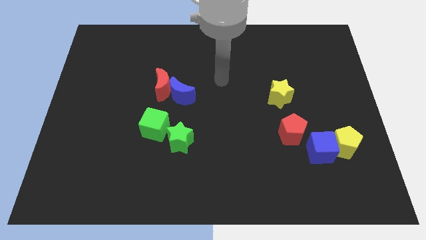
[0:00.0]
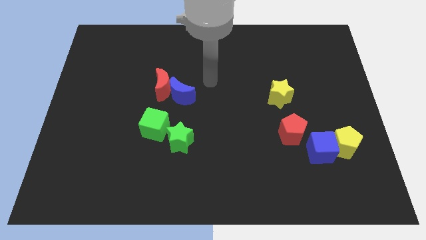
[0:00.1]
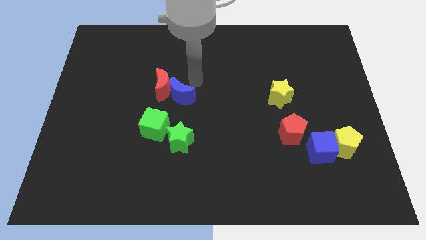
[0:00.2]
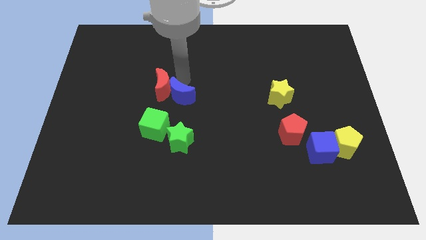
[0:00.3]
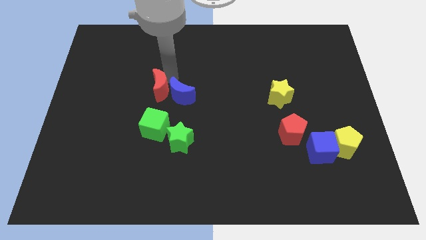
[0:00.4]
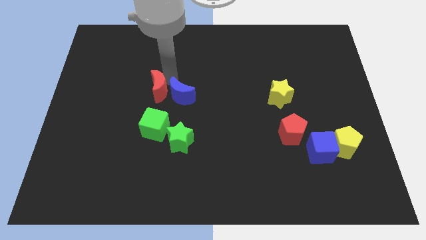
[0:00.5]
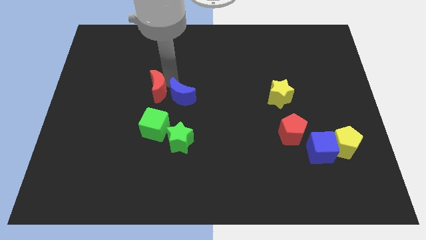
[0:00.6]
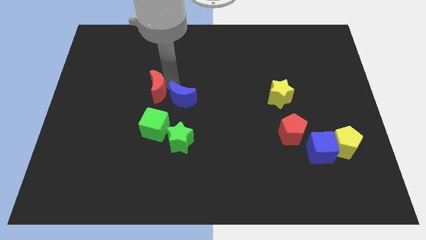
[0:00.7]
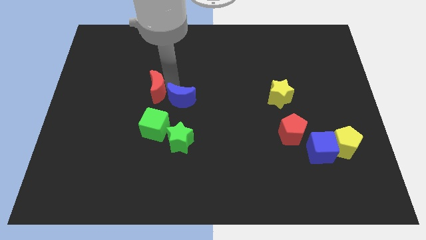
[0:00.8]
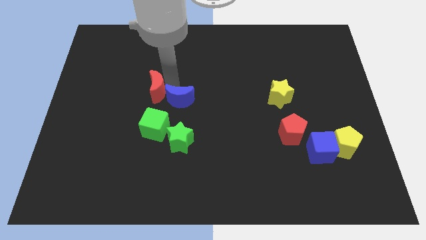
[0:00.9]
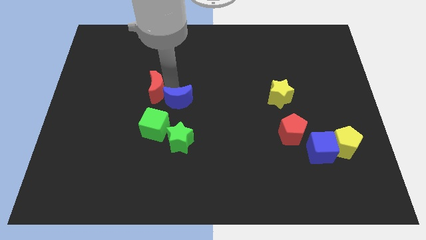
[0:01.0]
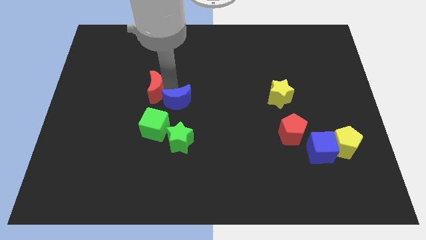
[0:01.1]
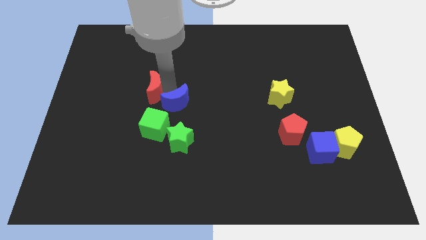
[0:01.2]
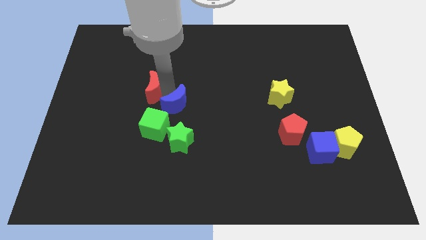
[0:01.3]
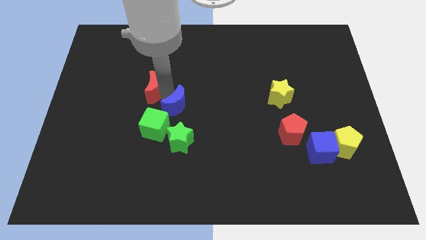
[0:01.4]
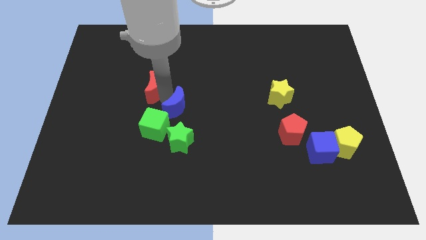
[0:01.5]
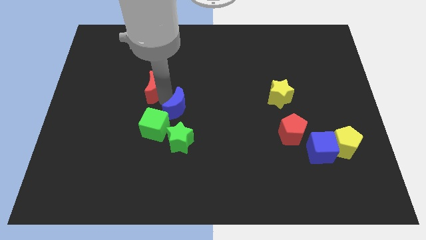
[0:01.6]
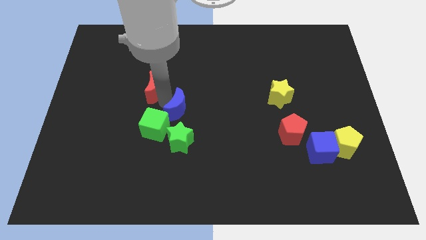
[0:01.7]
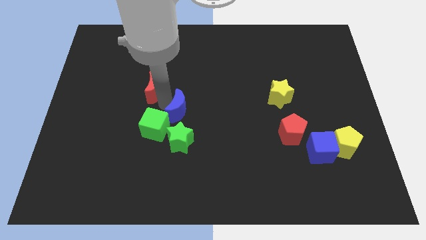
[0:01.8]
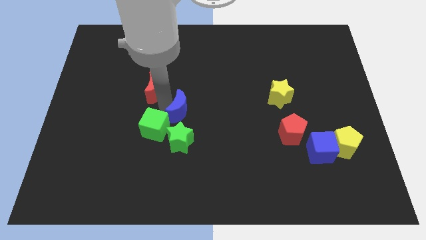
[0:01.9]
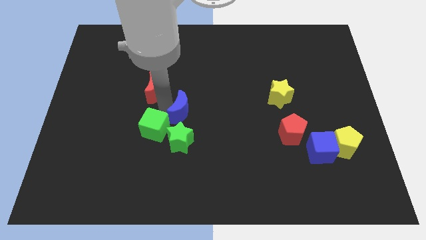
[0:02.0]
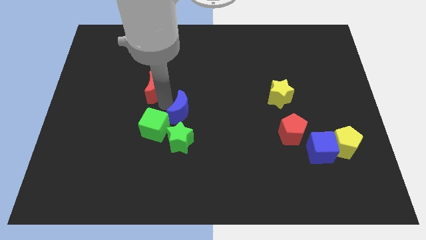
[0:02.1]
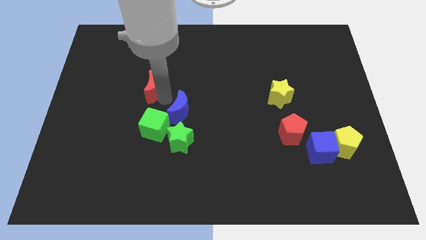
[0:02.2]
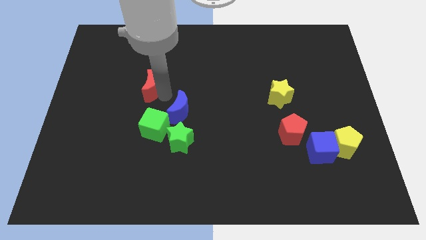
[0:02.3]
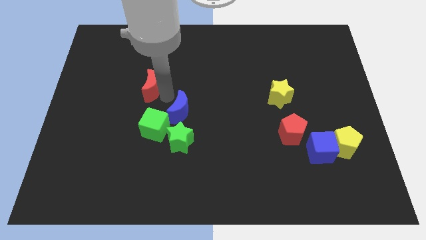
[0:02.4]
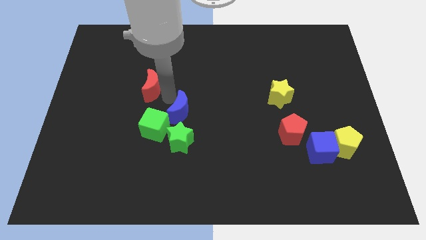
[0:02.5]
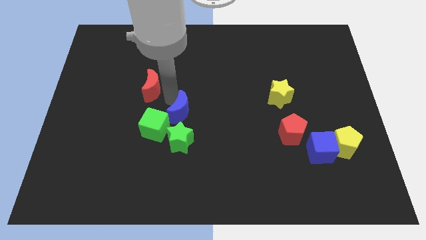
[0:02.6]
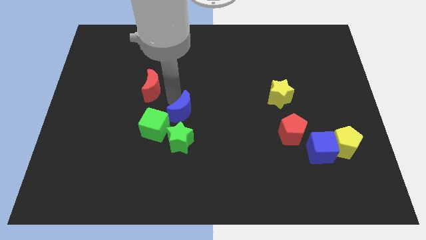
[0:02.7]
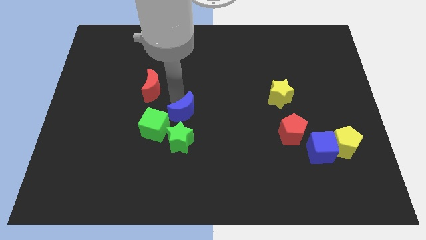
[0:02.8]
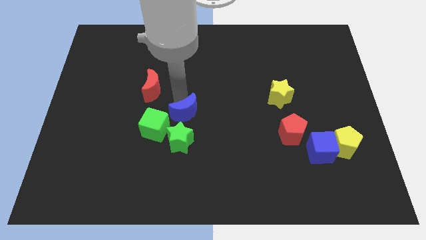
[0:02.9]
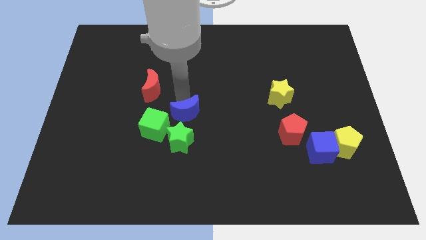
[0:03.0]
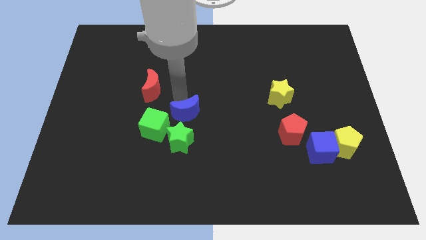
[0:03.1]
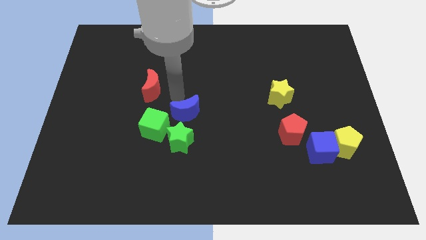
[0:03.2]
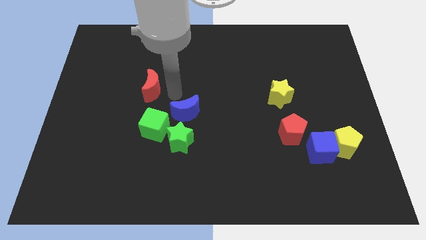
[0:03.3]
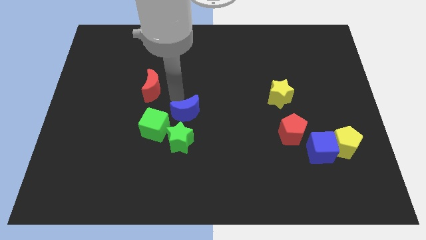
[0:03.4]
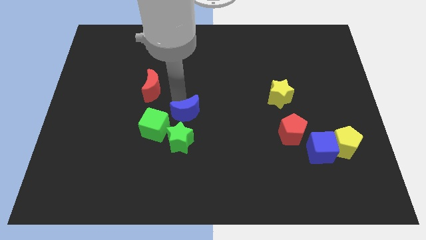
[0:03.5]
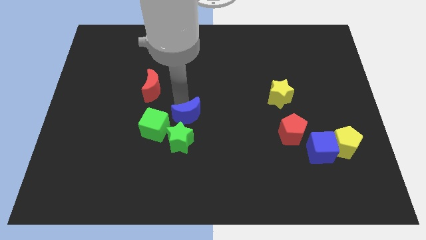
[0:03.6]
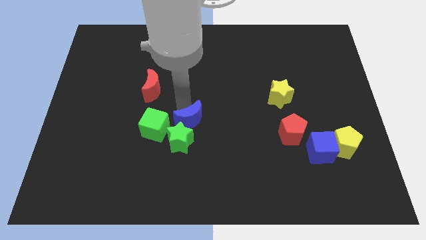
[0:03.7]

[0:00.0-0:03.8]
move the blue moon down slightly

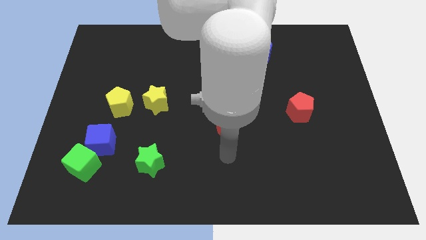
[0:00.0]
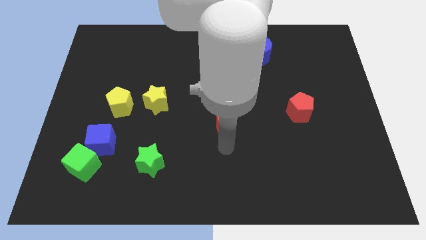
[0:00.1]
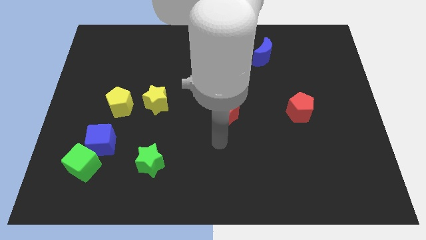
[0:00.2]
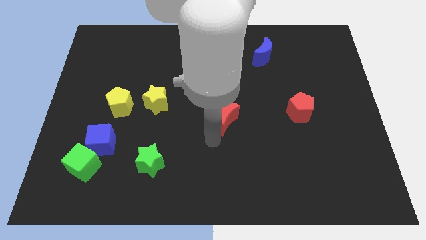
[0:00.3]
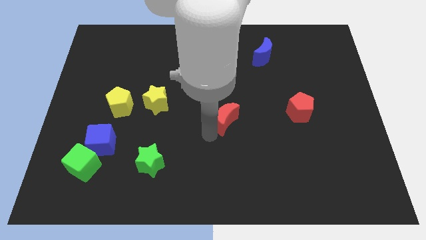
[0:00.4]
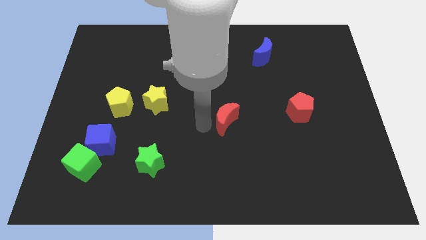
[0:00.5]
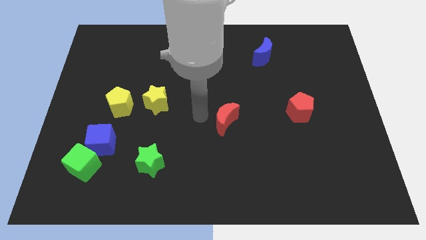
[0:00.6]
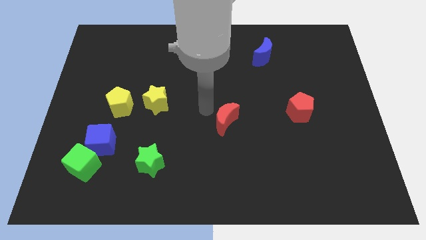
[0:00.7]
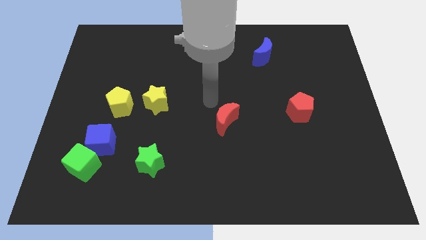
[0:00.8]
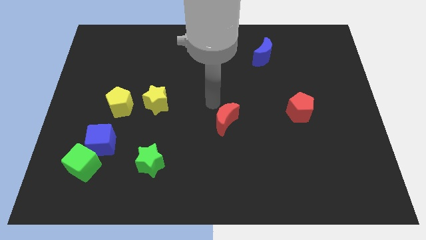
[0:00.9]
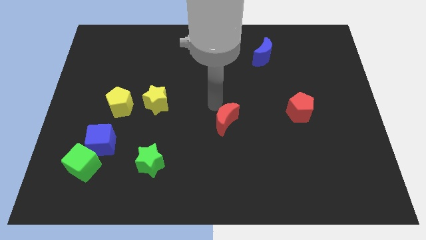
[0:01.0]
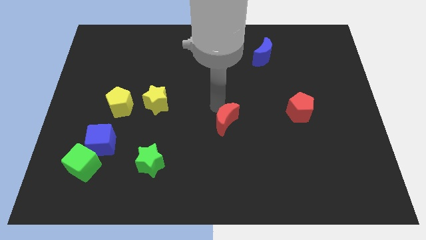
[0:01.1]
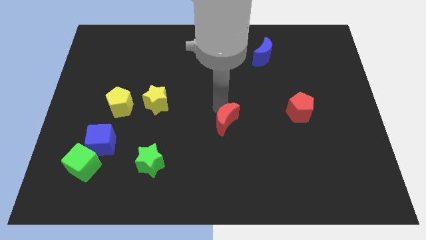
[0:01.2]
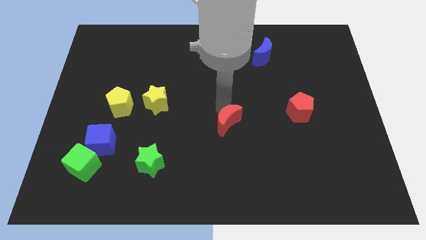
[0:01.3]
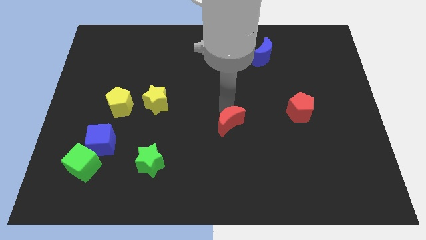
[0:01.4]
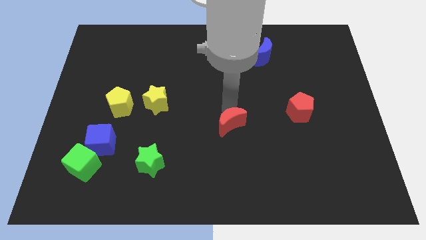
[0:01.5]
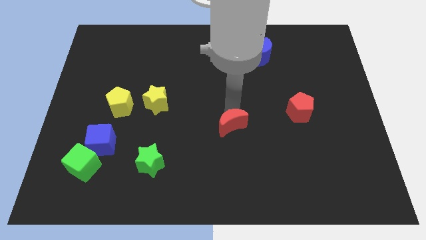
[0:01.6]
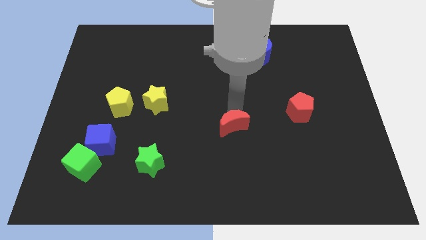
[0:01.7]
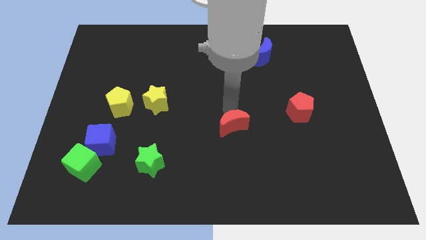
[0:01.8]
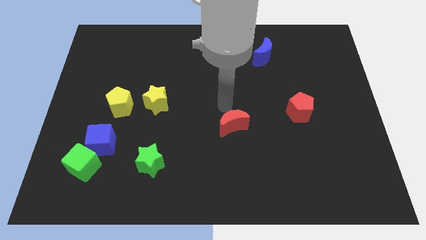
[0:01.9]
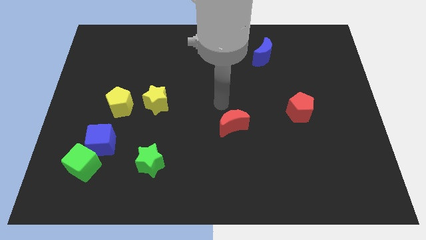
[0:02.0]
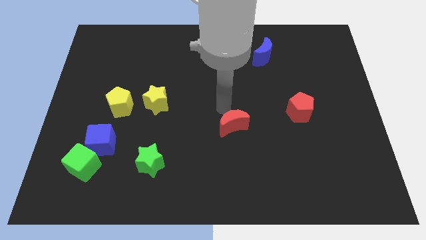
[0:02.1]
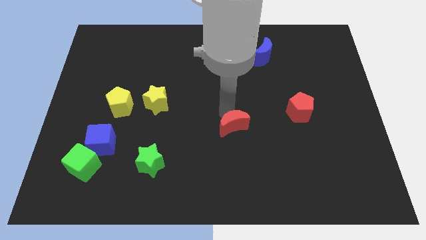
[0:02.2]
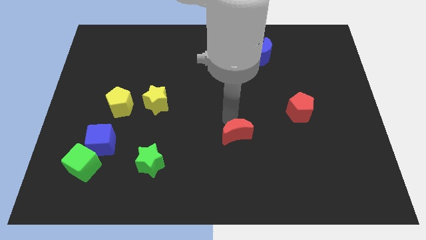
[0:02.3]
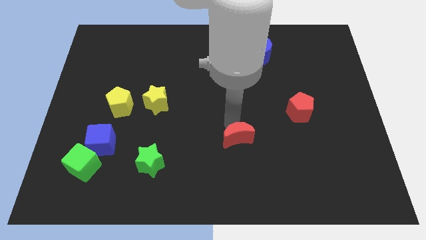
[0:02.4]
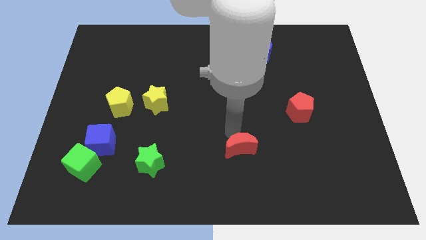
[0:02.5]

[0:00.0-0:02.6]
push the red moon somewhat downwards and right

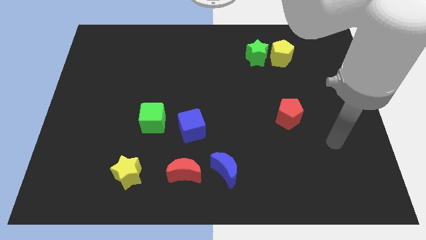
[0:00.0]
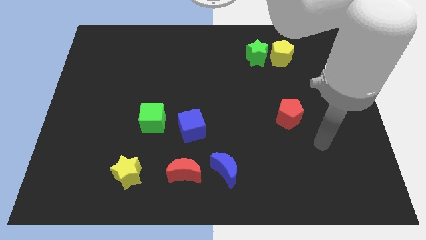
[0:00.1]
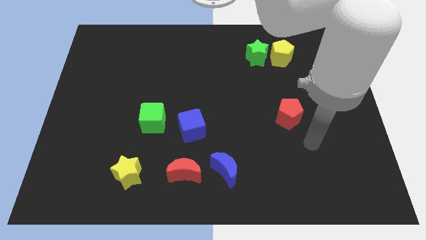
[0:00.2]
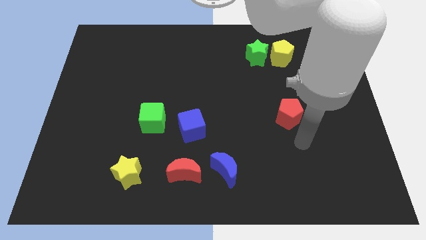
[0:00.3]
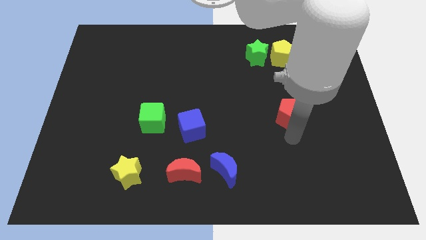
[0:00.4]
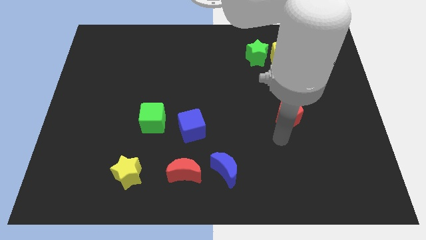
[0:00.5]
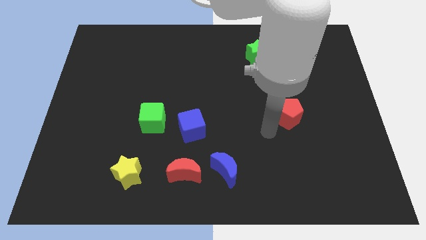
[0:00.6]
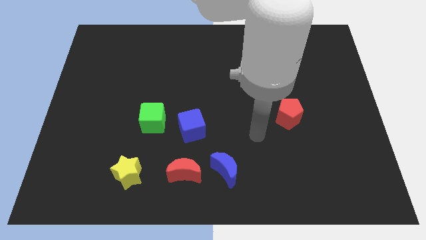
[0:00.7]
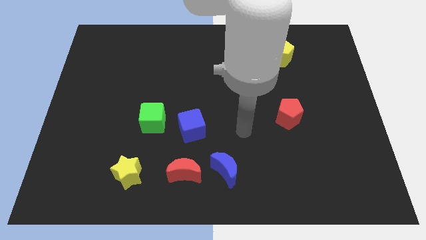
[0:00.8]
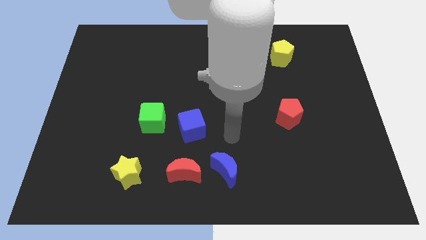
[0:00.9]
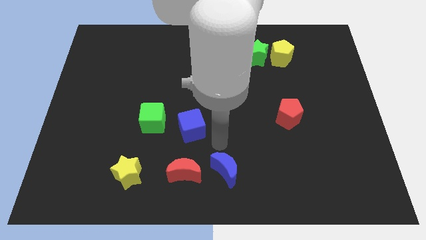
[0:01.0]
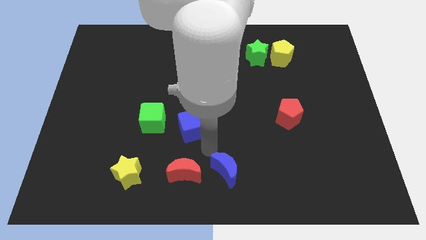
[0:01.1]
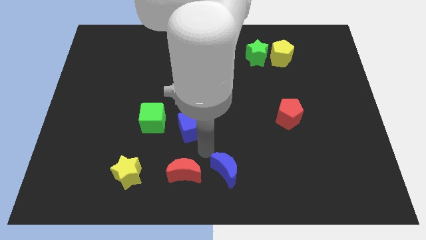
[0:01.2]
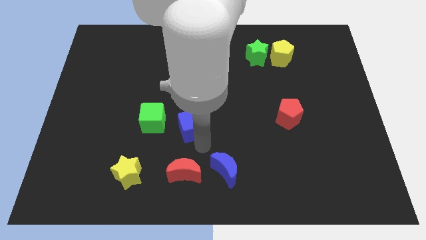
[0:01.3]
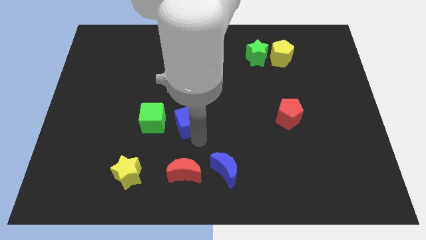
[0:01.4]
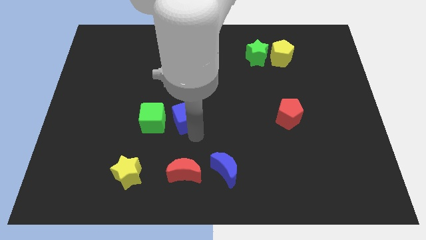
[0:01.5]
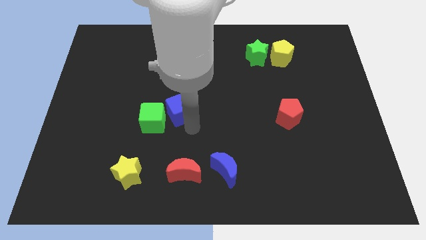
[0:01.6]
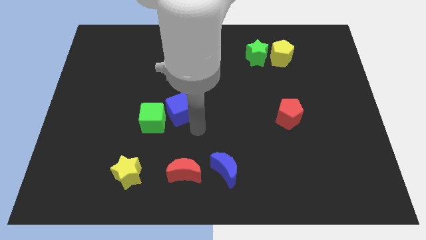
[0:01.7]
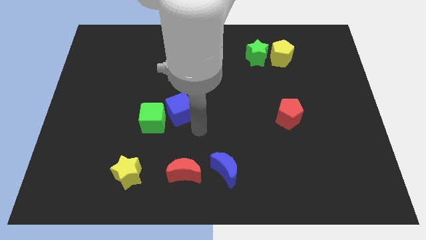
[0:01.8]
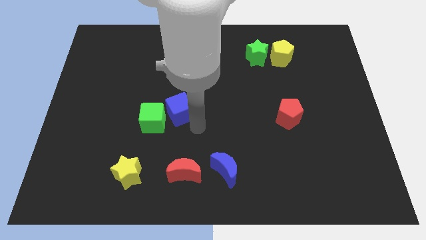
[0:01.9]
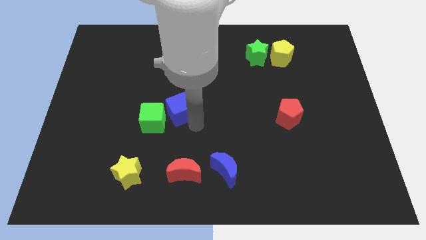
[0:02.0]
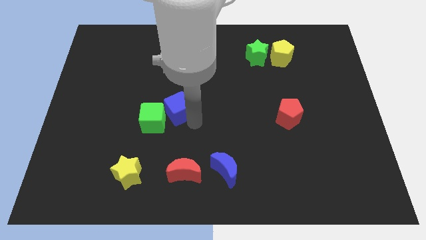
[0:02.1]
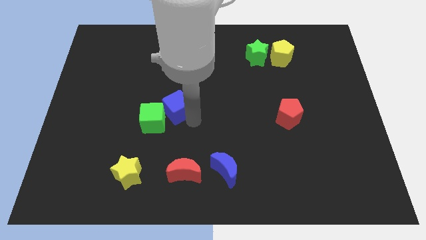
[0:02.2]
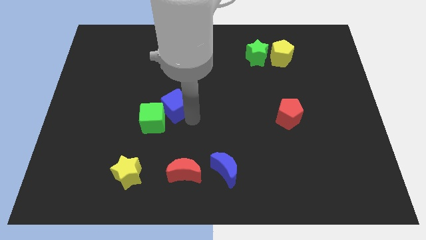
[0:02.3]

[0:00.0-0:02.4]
slightly push the blue cube upwards and left diagonally
